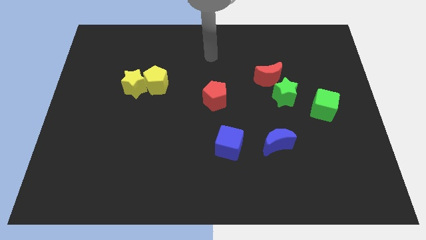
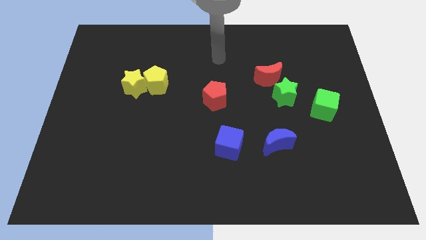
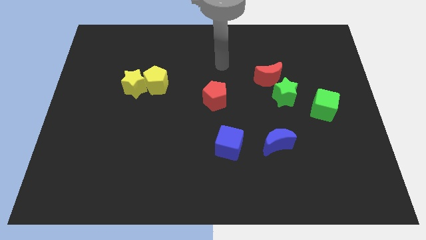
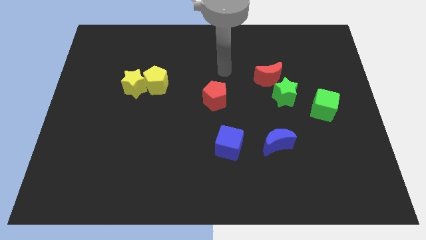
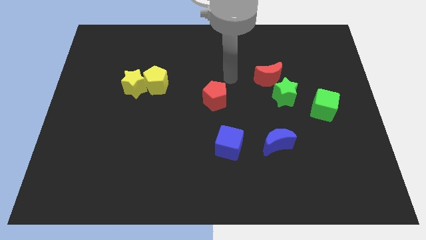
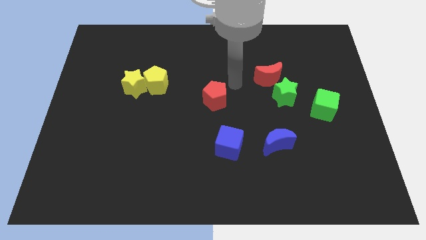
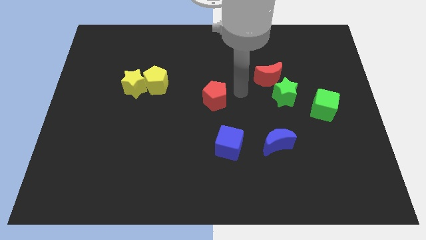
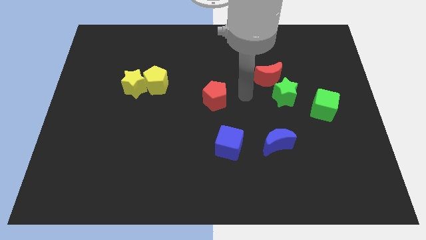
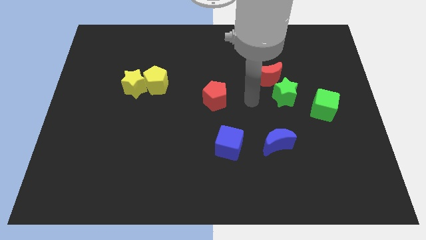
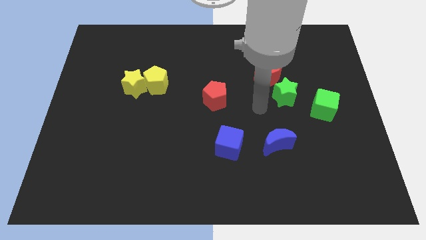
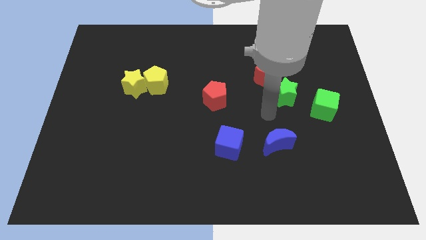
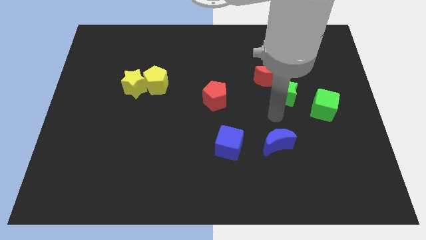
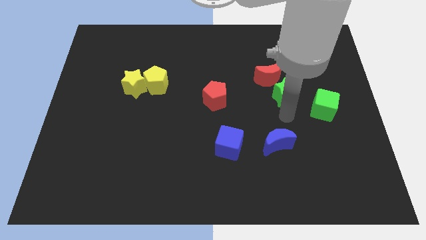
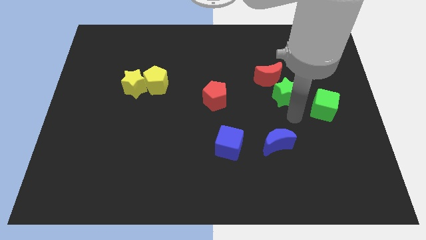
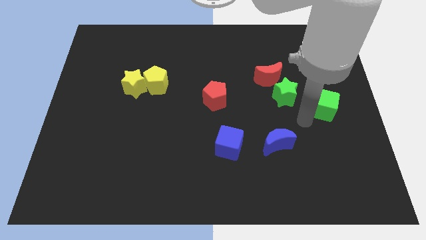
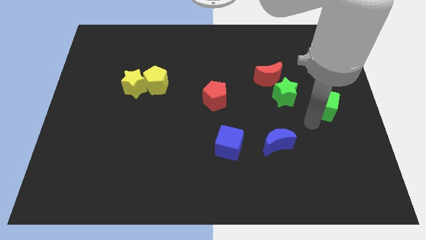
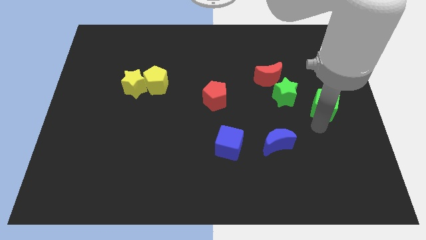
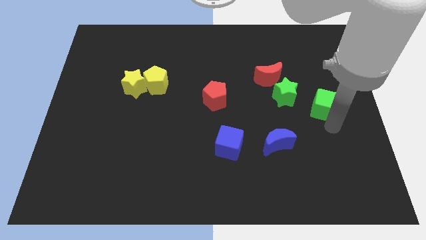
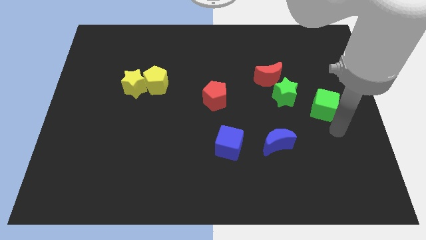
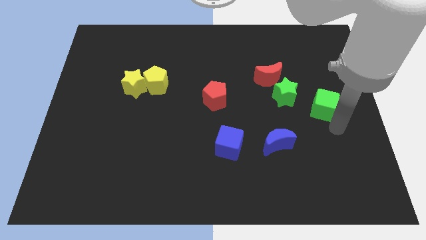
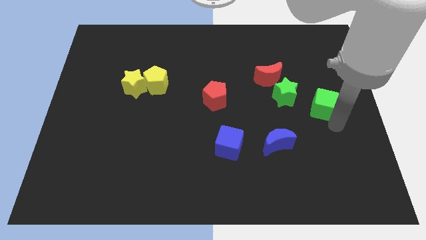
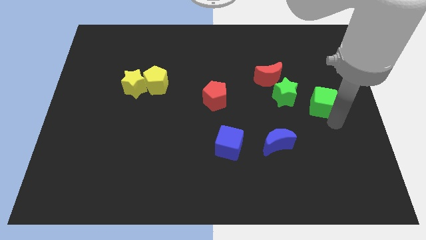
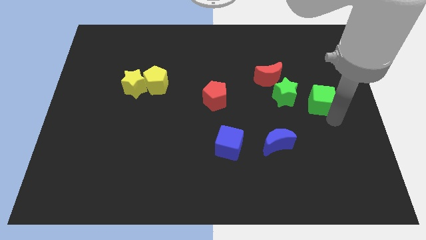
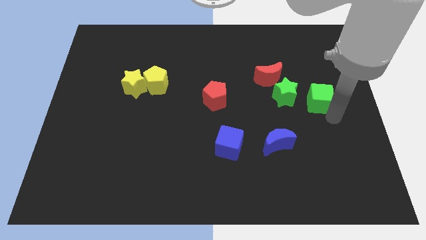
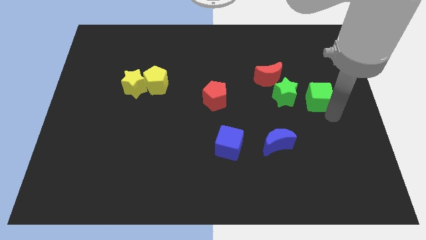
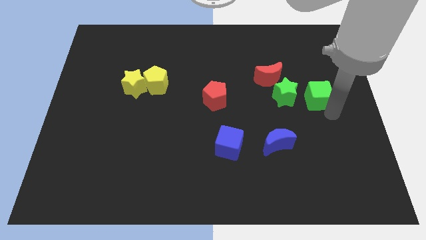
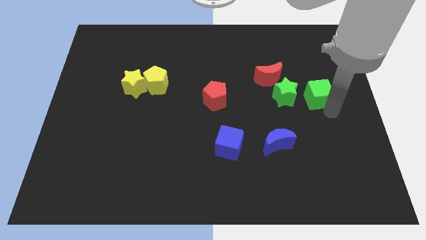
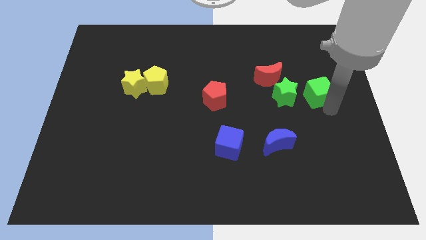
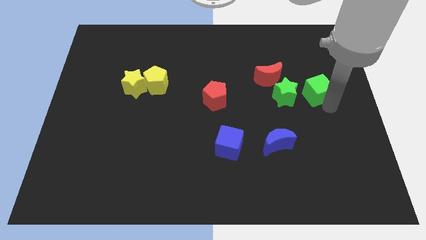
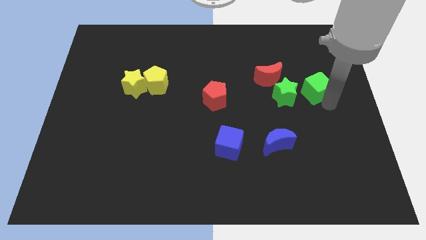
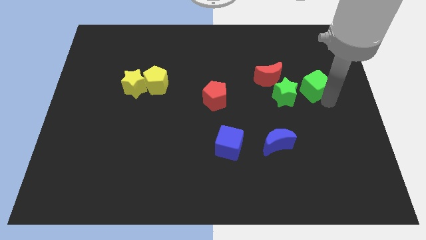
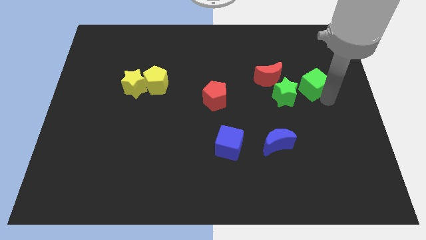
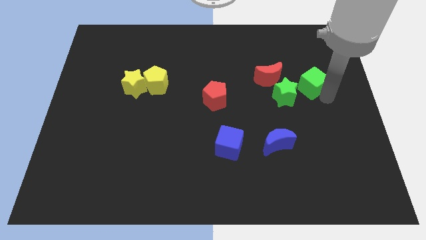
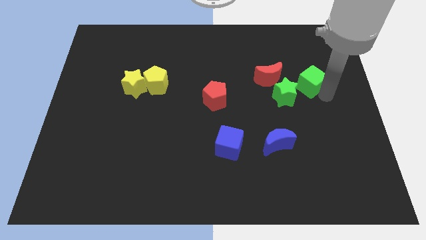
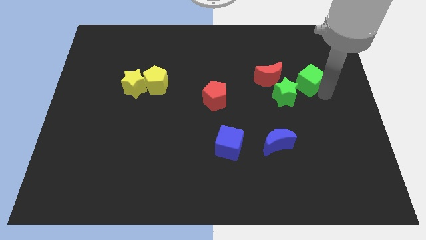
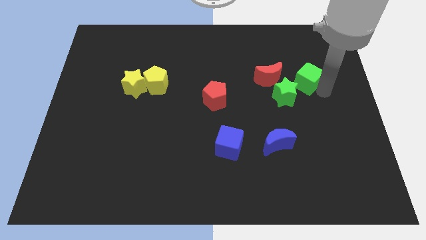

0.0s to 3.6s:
slightly push the green cube upwards and then to the left

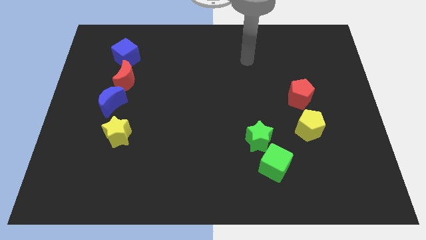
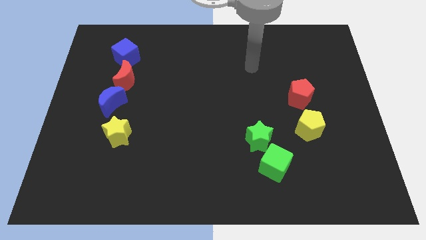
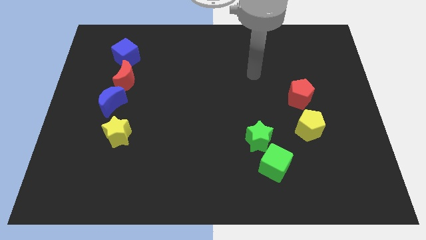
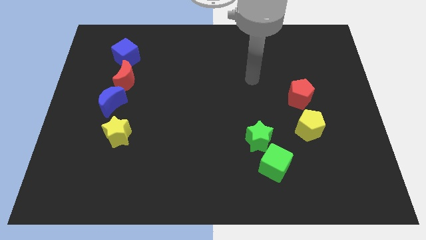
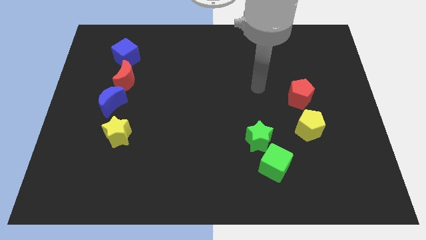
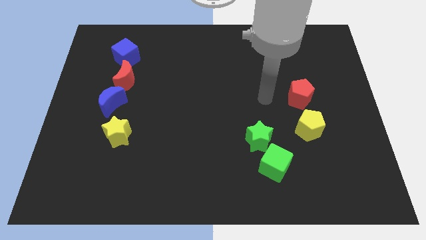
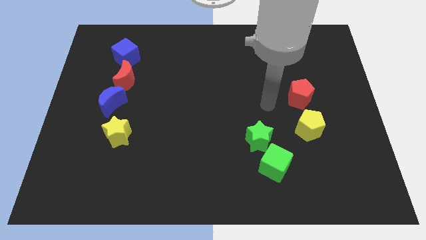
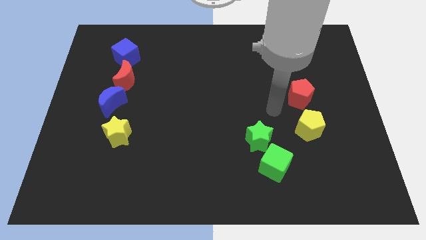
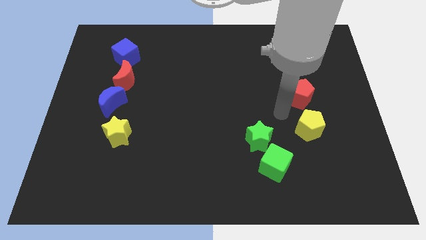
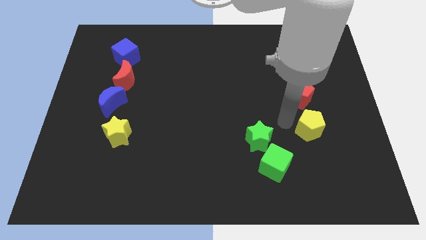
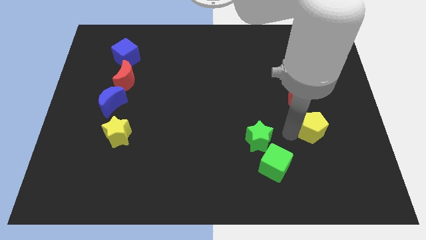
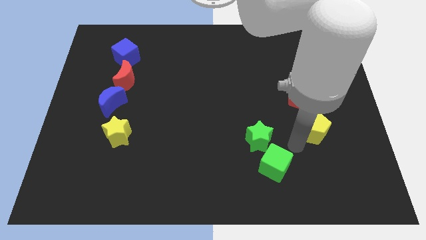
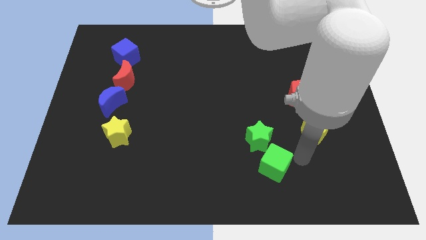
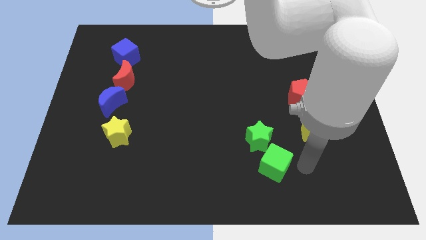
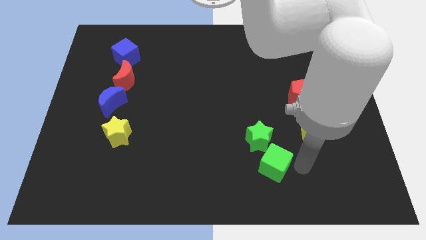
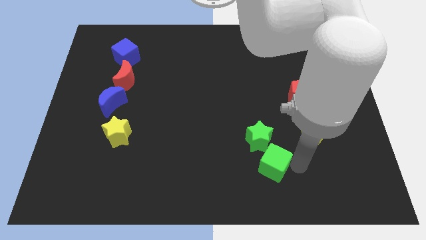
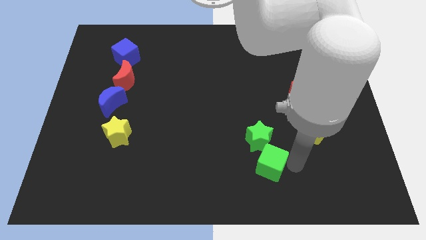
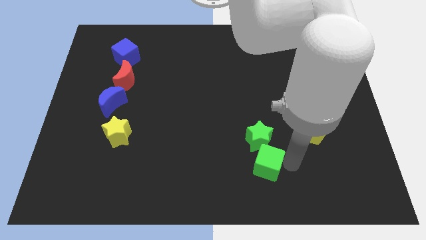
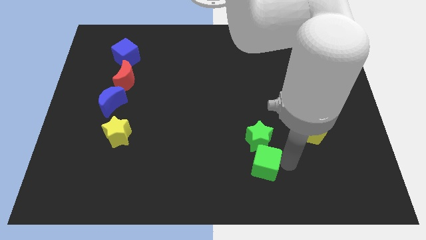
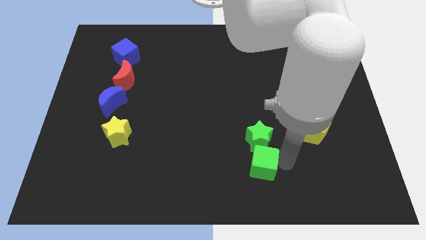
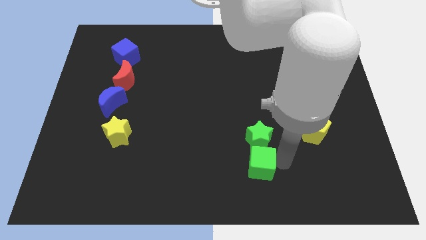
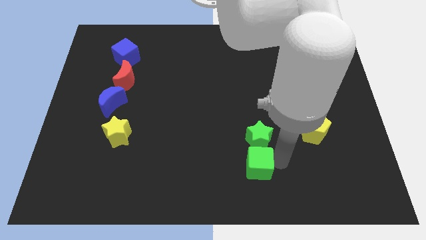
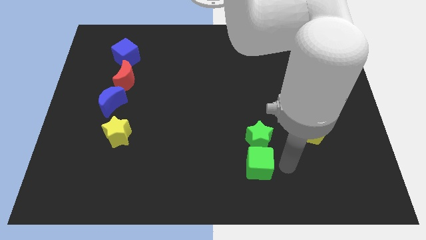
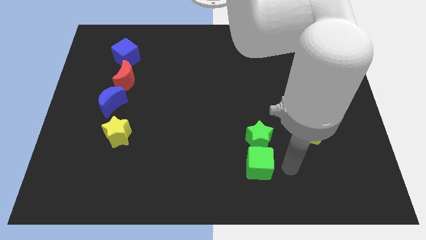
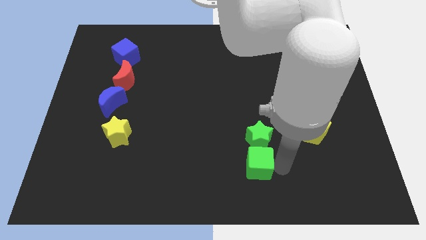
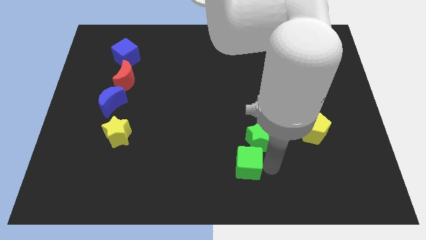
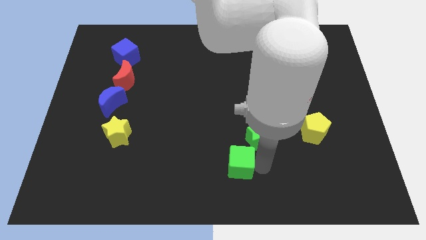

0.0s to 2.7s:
slide the green cube somewhat left

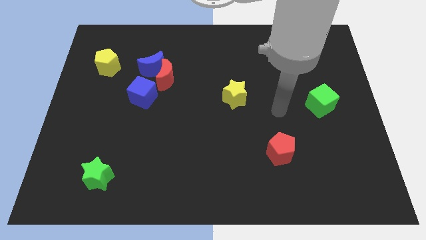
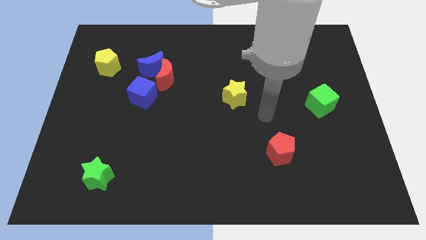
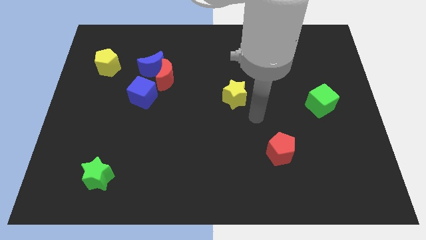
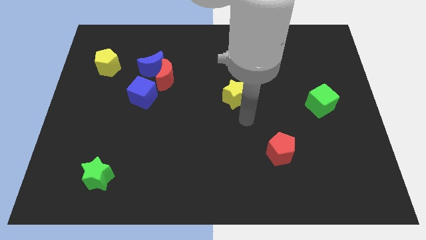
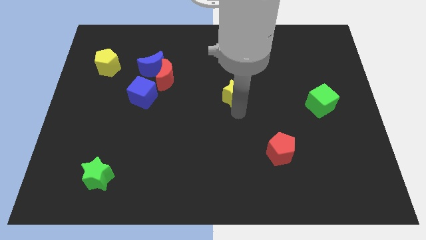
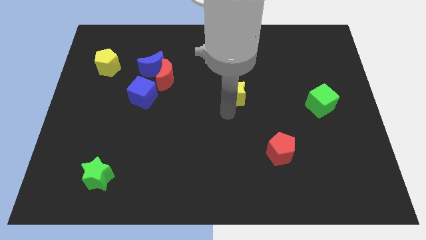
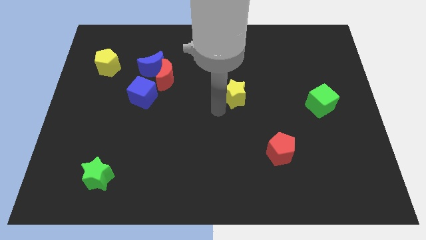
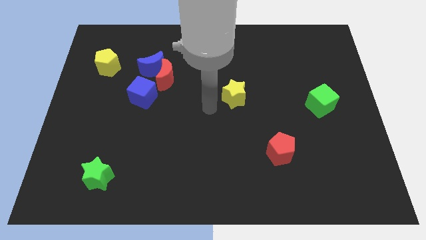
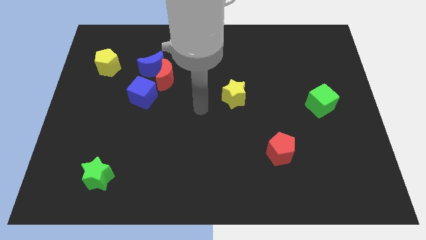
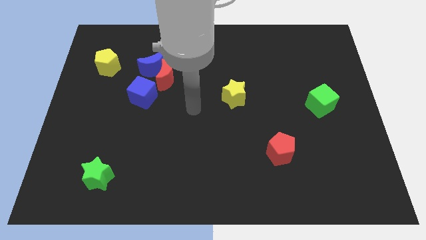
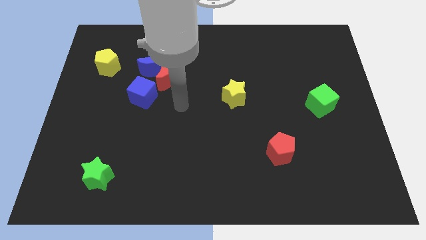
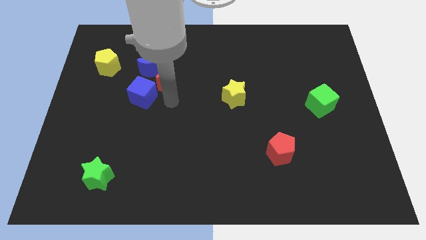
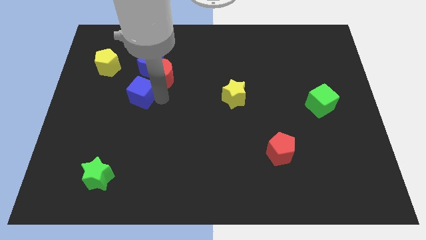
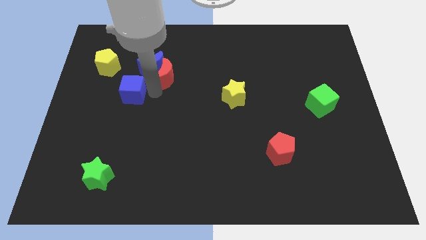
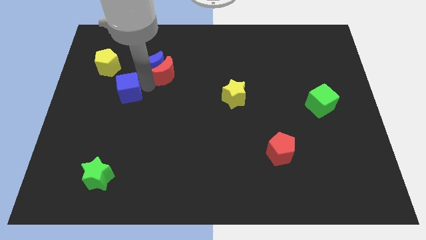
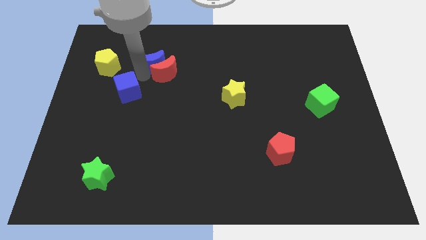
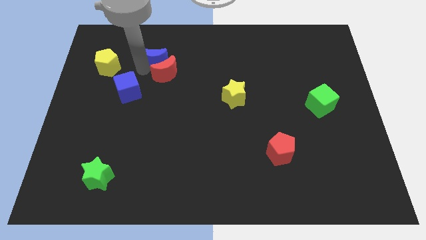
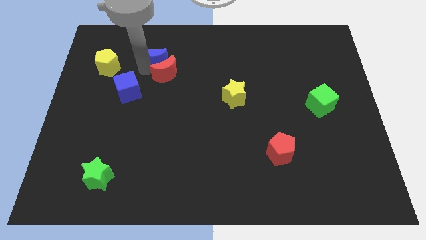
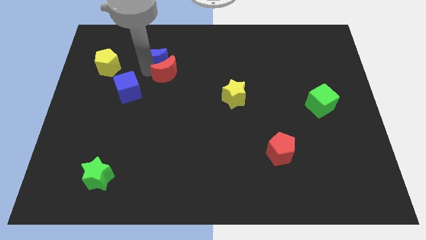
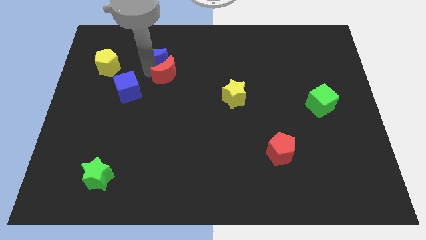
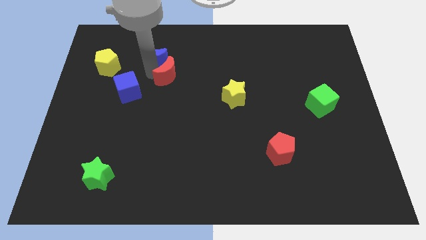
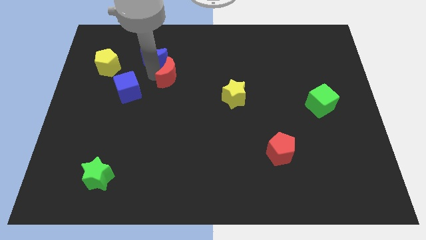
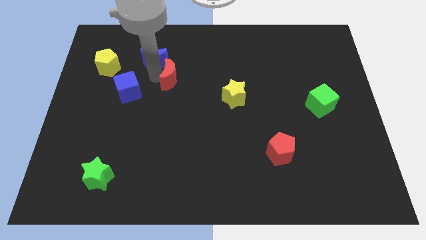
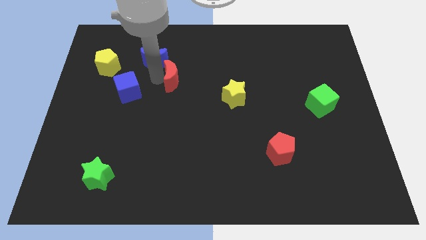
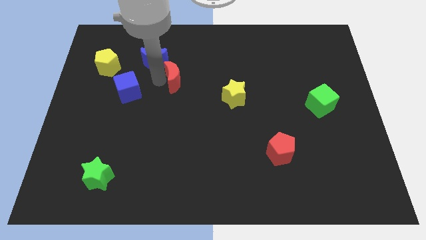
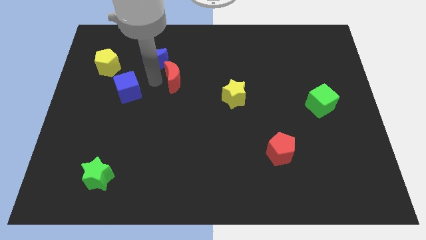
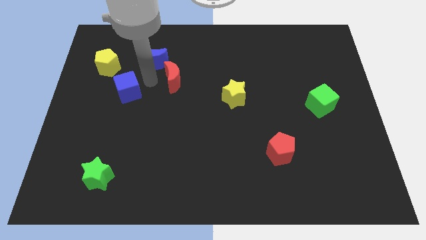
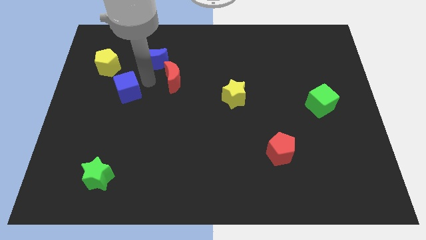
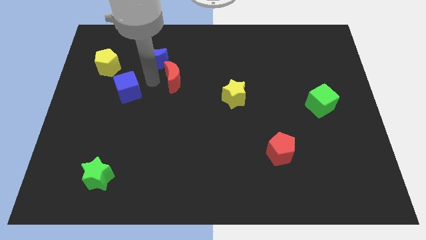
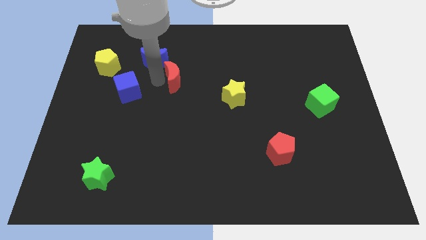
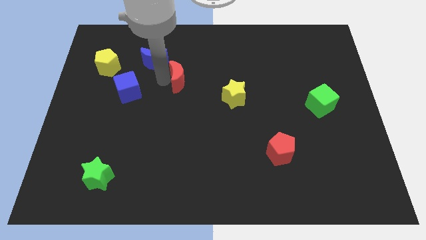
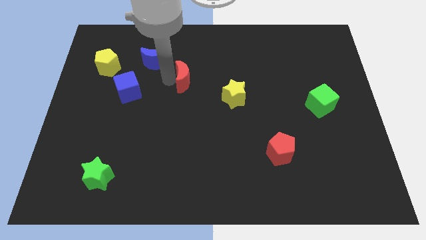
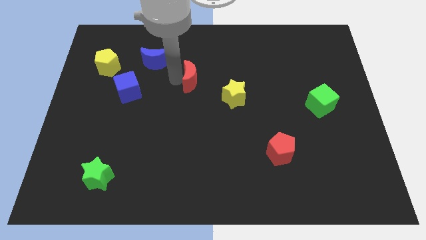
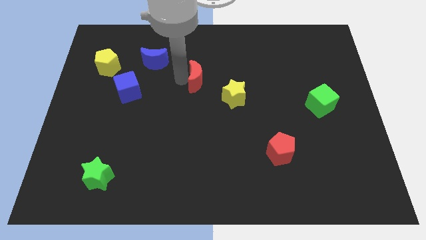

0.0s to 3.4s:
slightly push the red moon right
